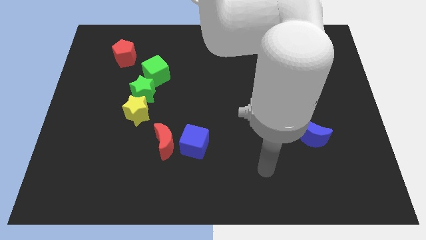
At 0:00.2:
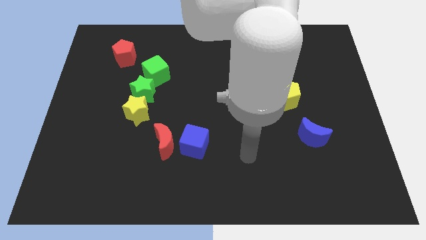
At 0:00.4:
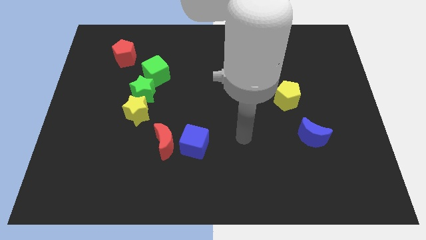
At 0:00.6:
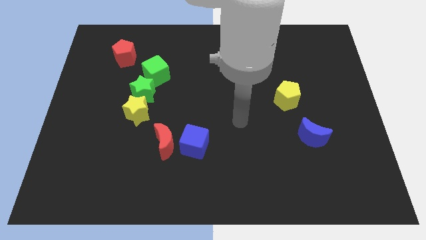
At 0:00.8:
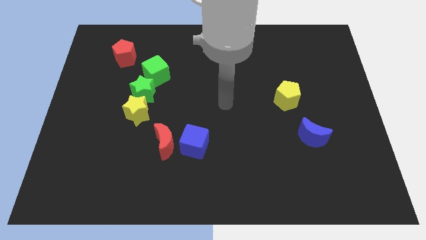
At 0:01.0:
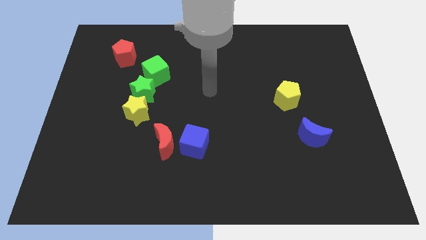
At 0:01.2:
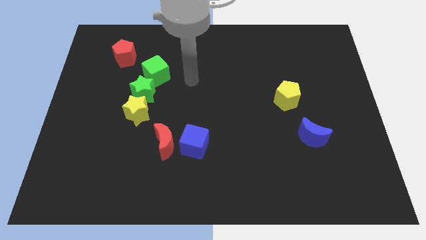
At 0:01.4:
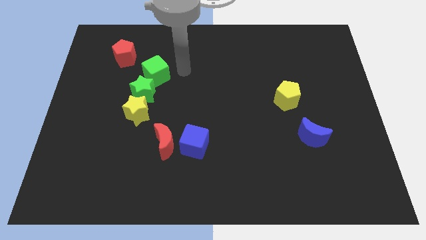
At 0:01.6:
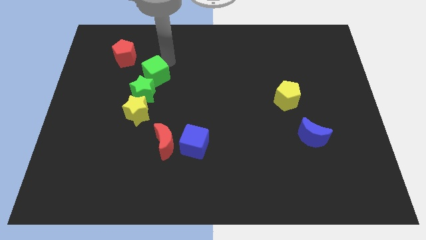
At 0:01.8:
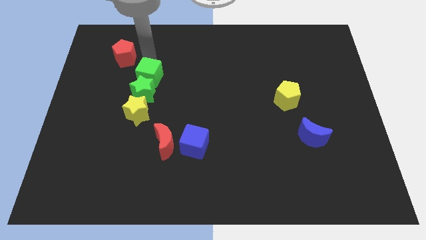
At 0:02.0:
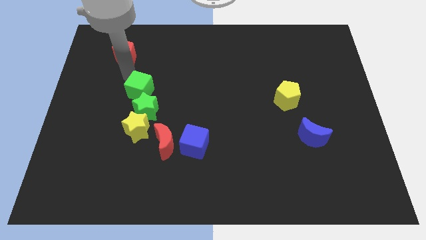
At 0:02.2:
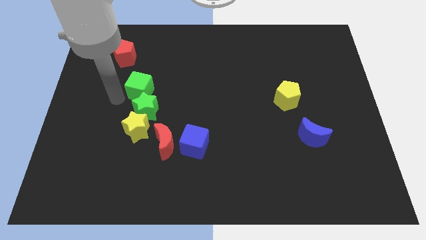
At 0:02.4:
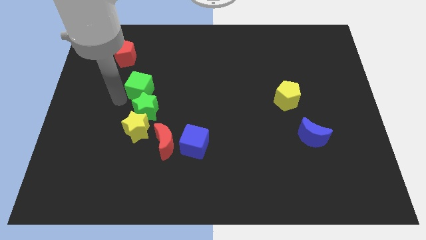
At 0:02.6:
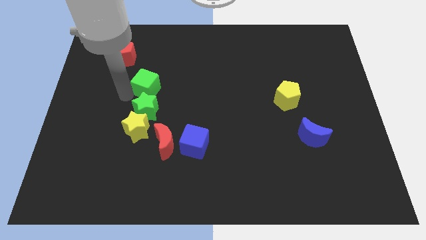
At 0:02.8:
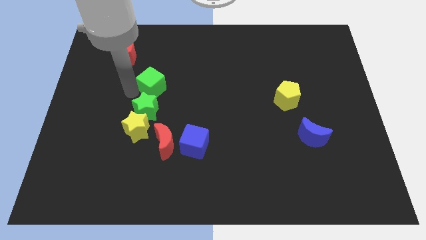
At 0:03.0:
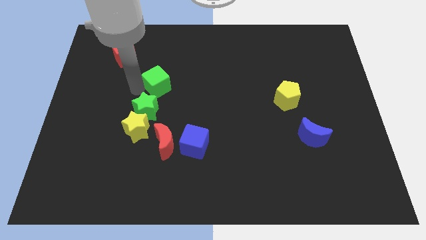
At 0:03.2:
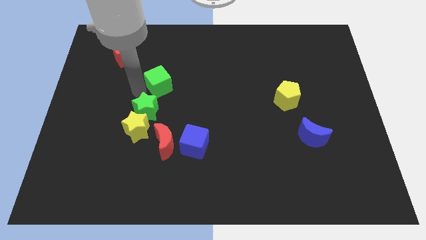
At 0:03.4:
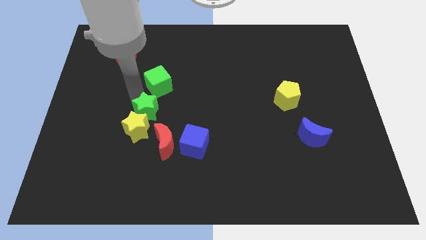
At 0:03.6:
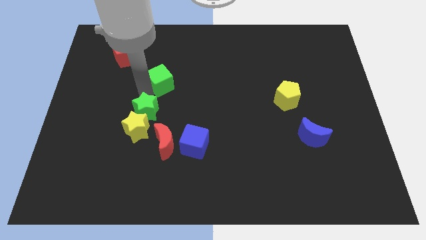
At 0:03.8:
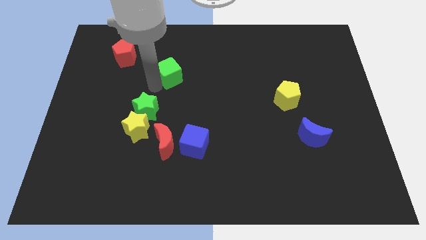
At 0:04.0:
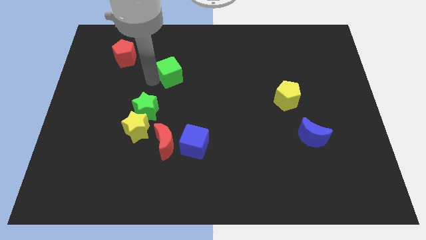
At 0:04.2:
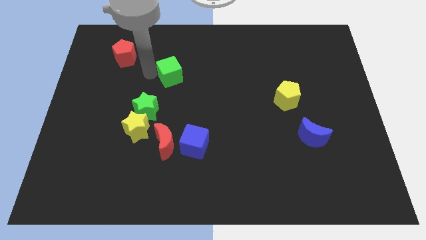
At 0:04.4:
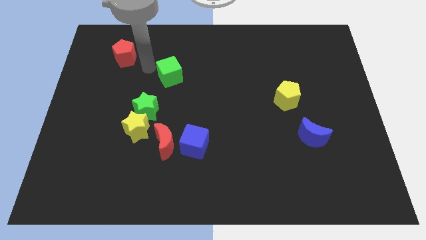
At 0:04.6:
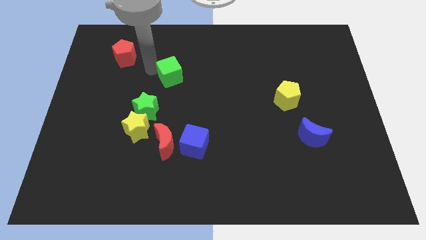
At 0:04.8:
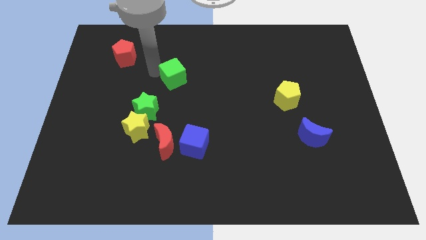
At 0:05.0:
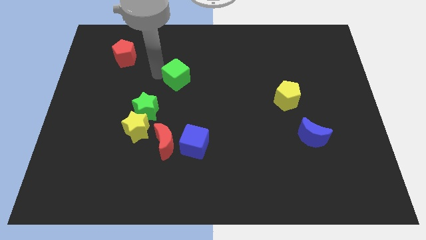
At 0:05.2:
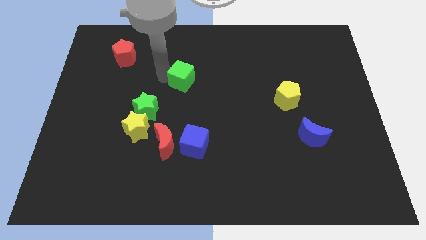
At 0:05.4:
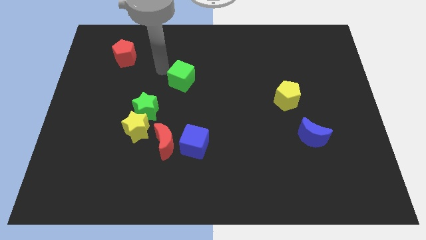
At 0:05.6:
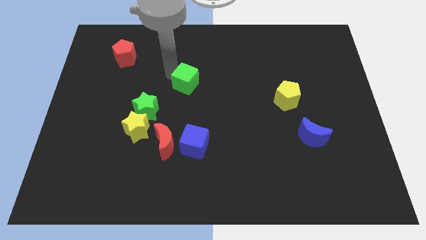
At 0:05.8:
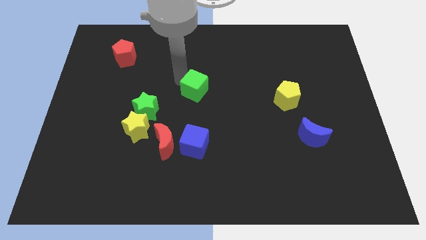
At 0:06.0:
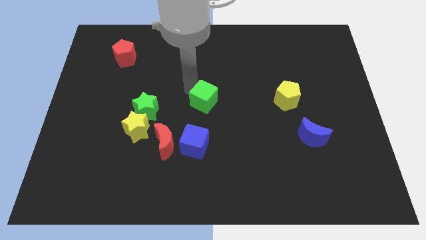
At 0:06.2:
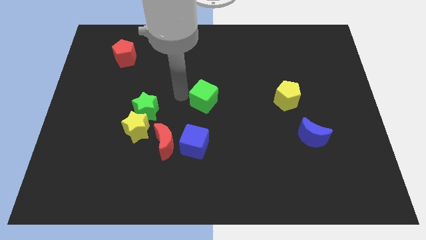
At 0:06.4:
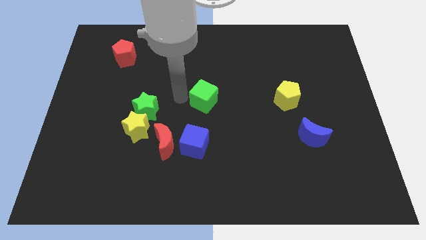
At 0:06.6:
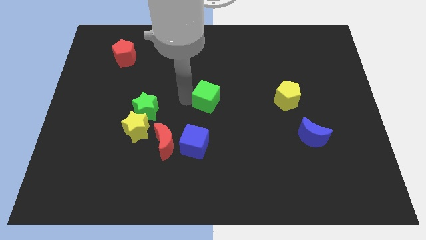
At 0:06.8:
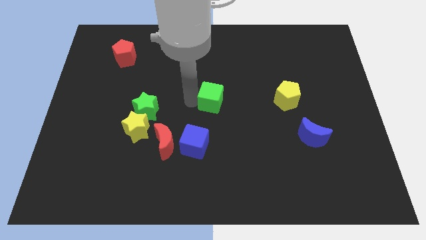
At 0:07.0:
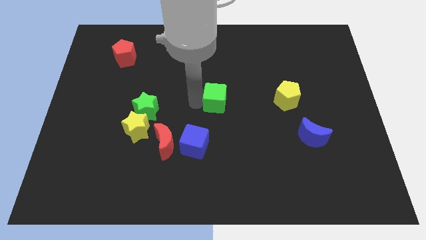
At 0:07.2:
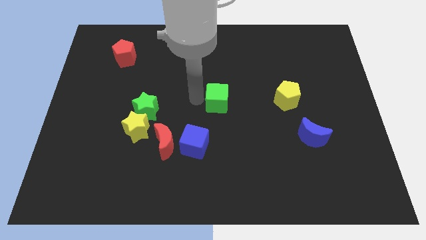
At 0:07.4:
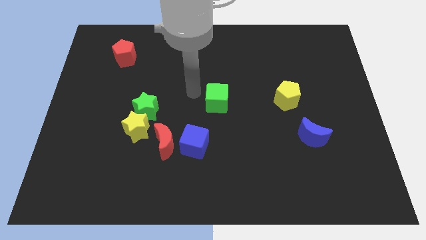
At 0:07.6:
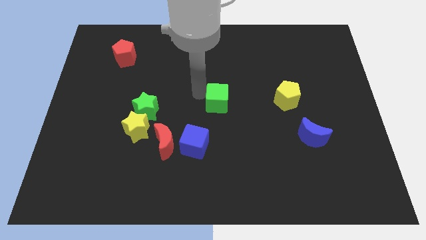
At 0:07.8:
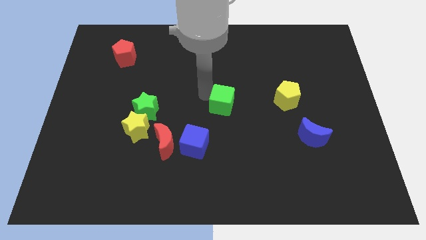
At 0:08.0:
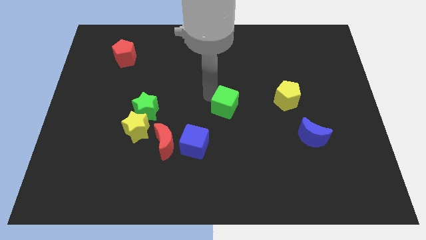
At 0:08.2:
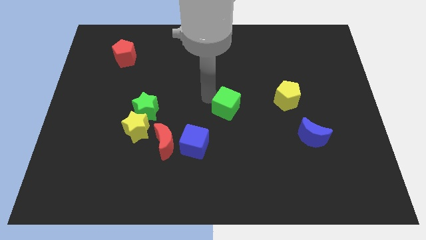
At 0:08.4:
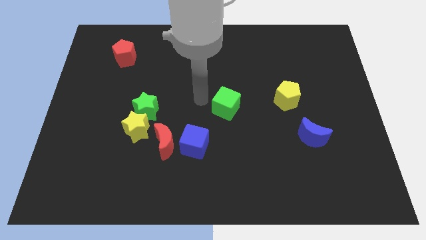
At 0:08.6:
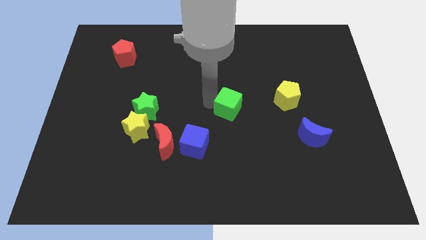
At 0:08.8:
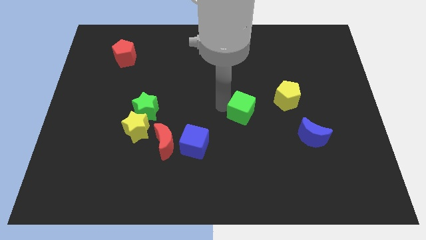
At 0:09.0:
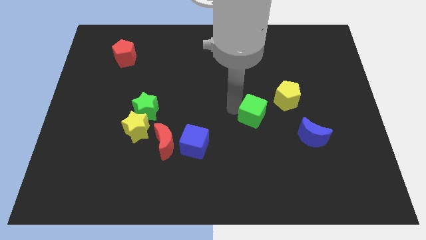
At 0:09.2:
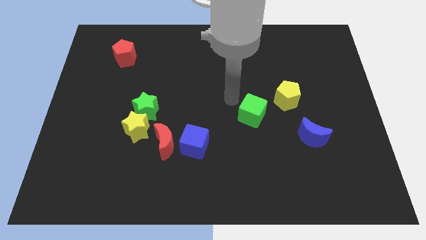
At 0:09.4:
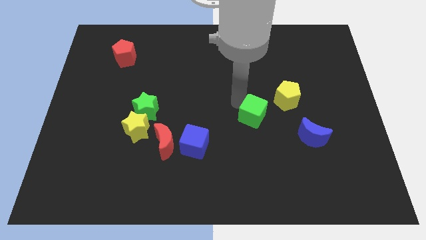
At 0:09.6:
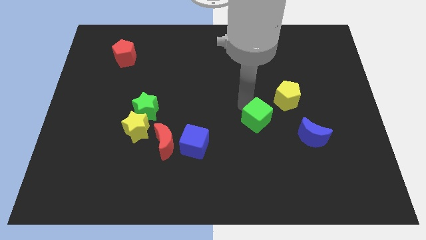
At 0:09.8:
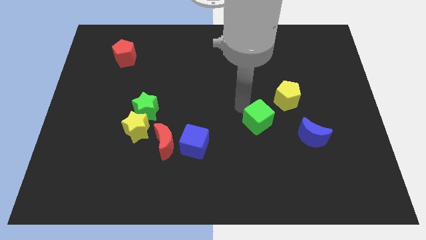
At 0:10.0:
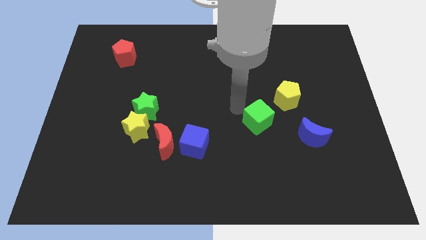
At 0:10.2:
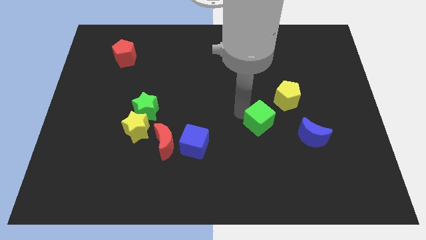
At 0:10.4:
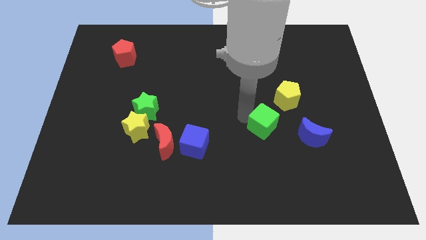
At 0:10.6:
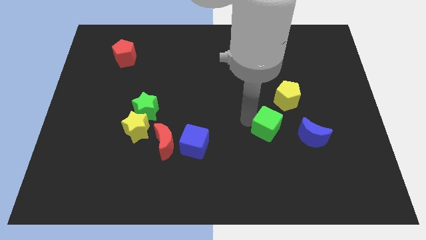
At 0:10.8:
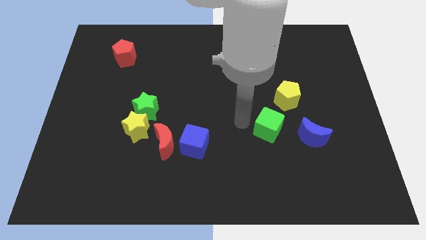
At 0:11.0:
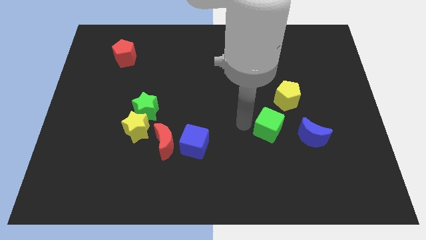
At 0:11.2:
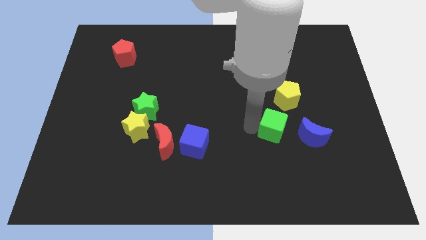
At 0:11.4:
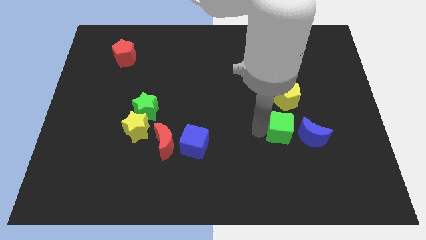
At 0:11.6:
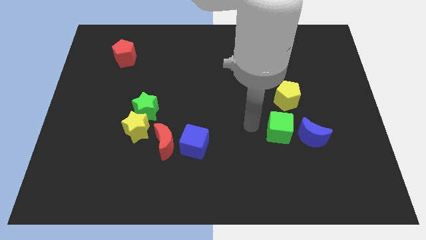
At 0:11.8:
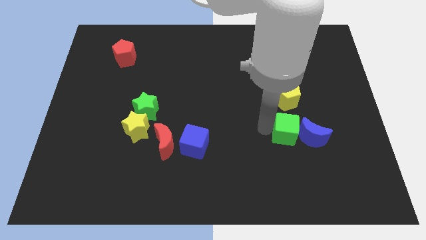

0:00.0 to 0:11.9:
slide the green cube towards the blue moon

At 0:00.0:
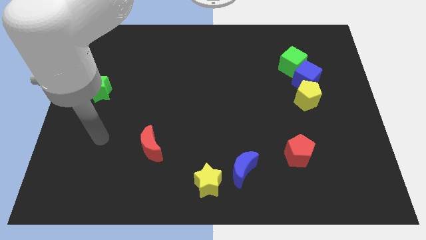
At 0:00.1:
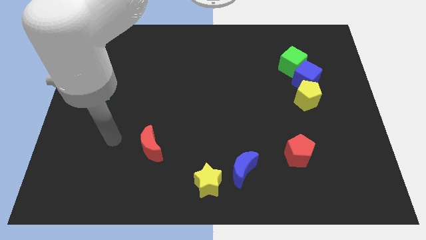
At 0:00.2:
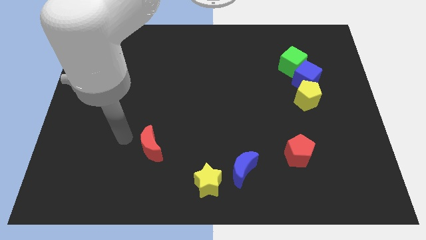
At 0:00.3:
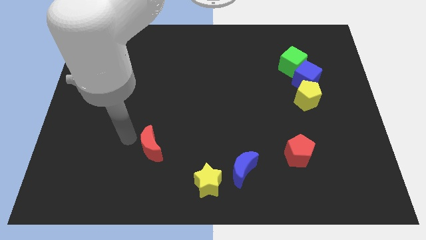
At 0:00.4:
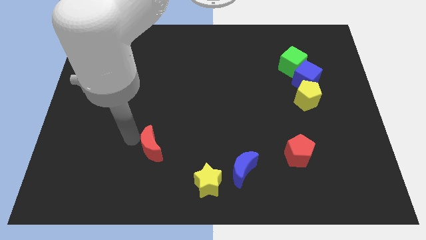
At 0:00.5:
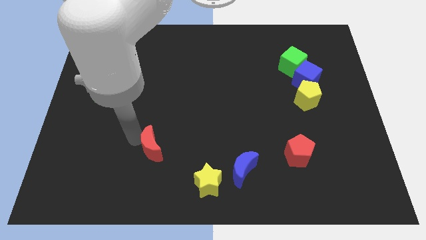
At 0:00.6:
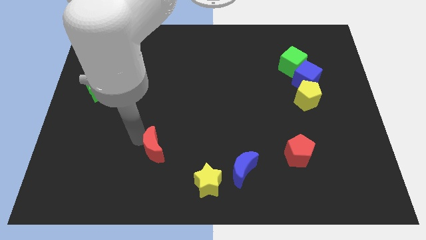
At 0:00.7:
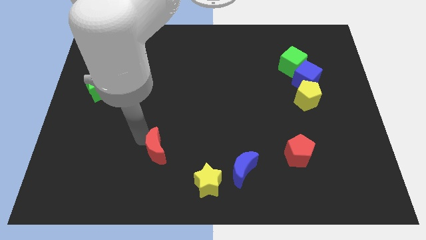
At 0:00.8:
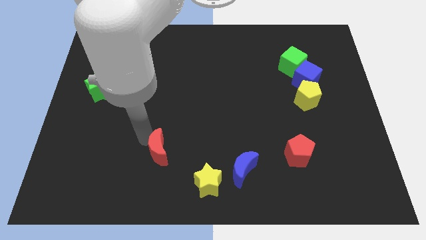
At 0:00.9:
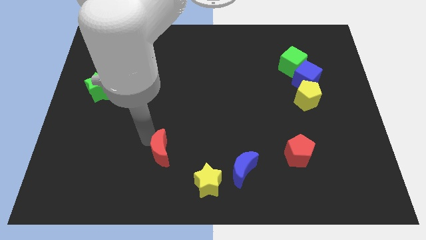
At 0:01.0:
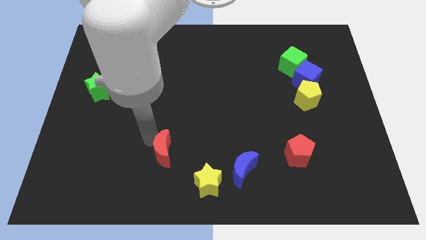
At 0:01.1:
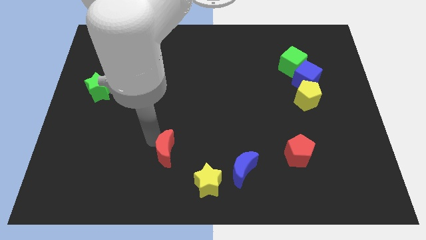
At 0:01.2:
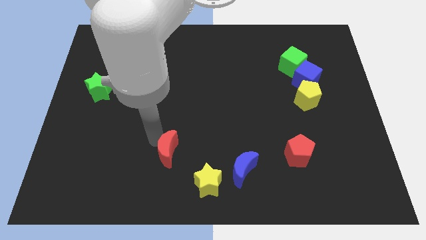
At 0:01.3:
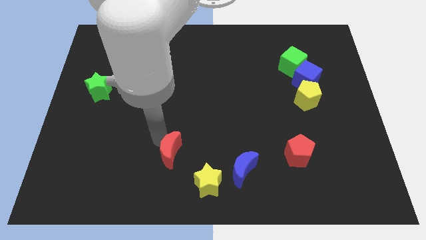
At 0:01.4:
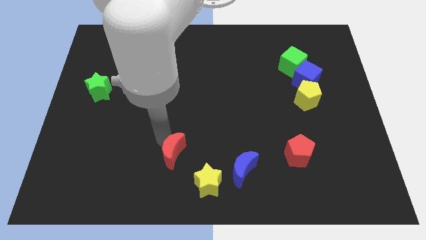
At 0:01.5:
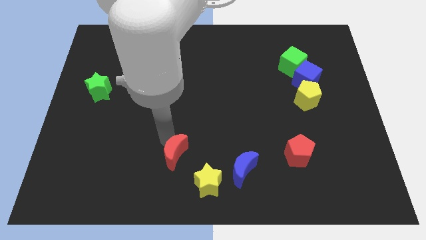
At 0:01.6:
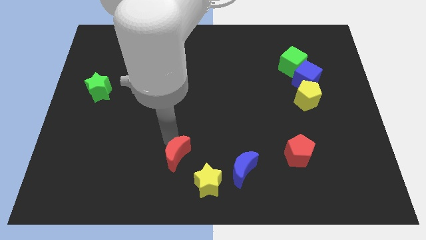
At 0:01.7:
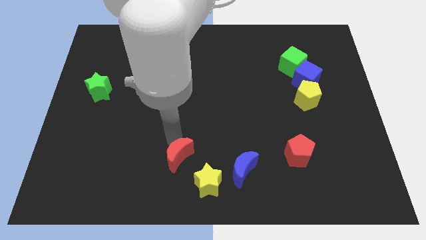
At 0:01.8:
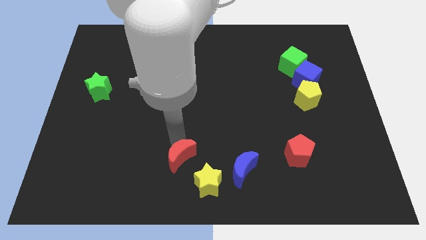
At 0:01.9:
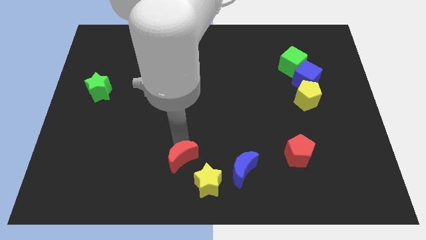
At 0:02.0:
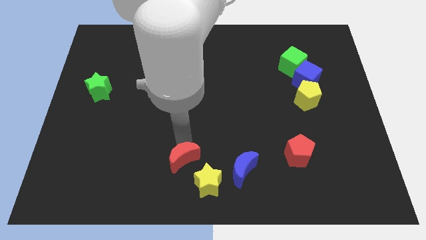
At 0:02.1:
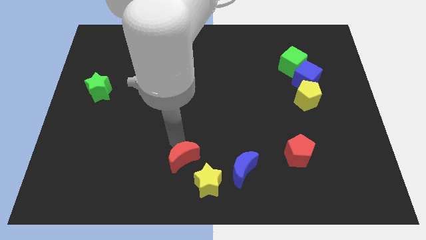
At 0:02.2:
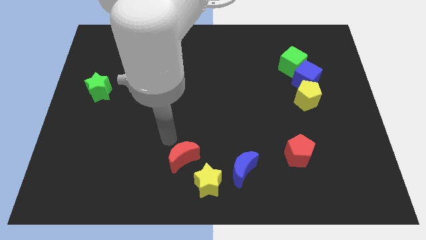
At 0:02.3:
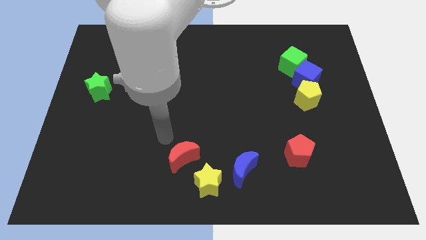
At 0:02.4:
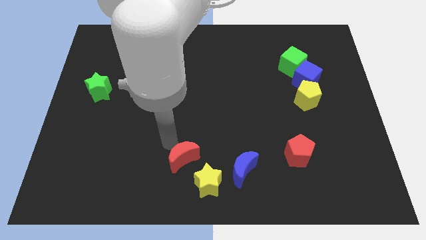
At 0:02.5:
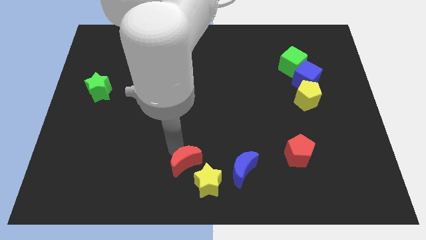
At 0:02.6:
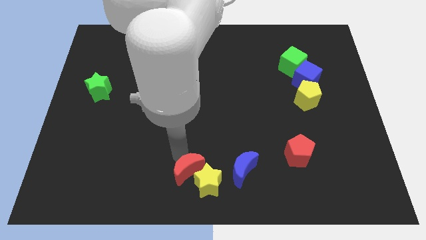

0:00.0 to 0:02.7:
move the red moon next to the yellow star
